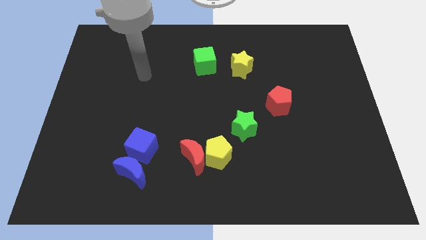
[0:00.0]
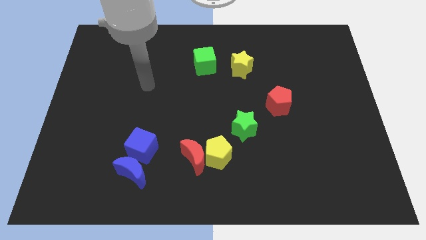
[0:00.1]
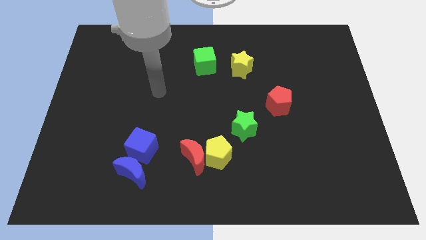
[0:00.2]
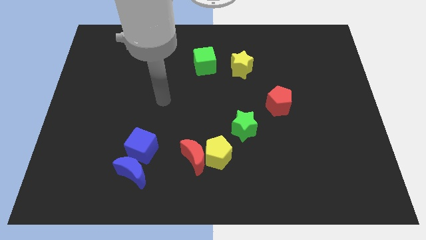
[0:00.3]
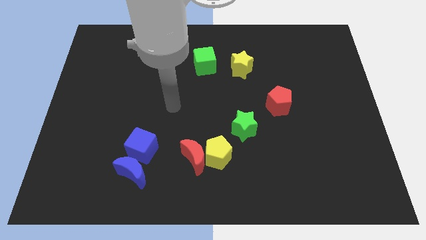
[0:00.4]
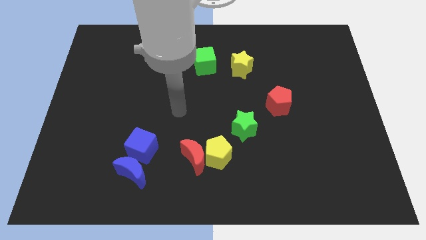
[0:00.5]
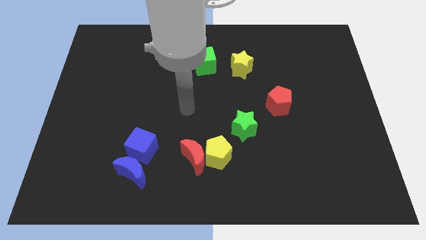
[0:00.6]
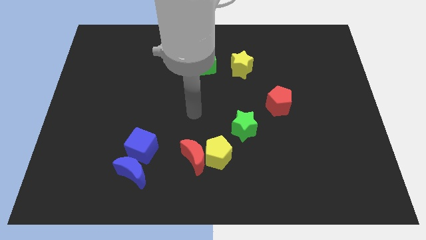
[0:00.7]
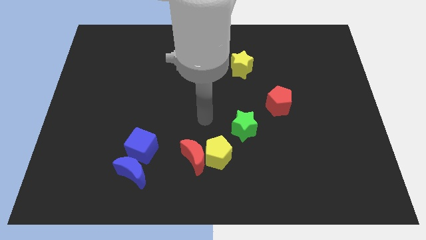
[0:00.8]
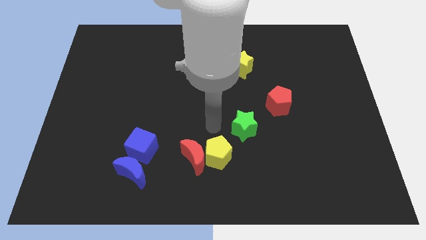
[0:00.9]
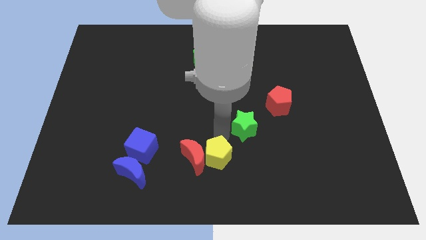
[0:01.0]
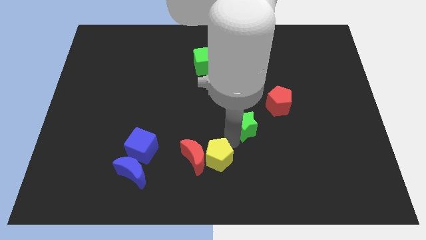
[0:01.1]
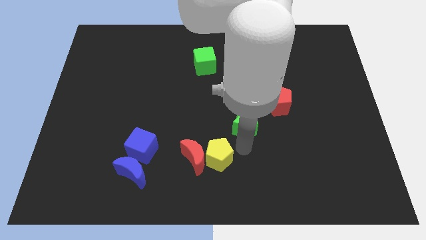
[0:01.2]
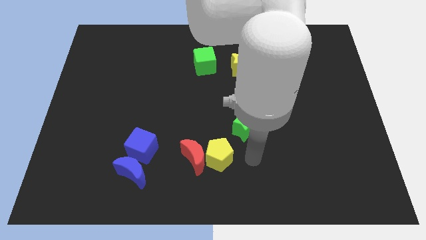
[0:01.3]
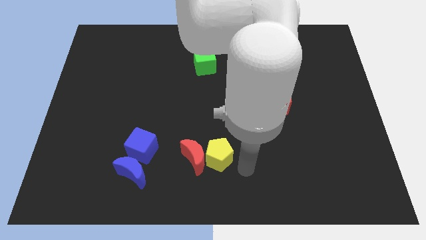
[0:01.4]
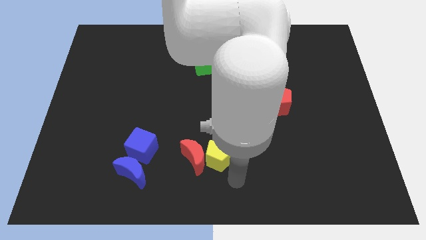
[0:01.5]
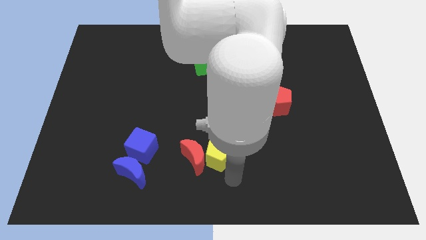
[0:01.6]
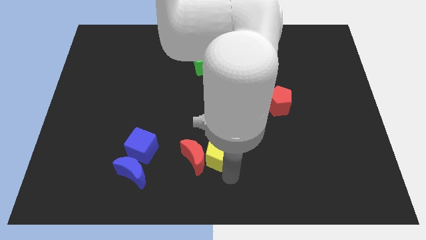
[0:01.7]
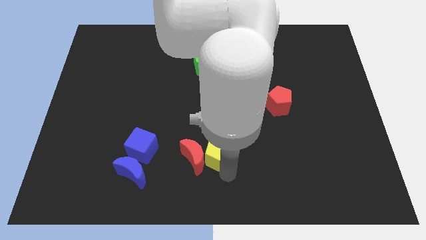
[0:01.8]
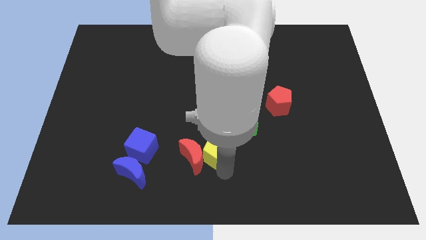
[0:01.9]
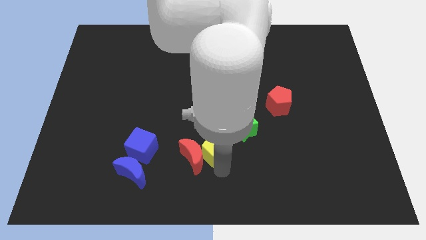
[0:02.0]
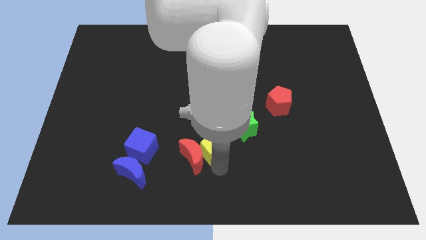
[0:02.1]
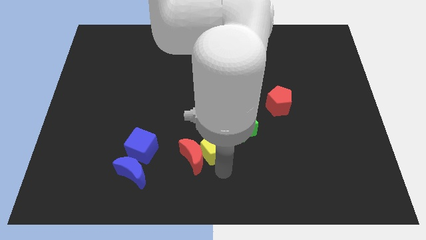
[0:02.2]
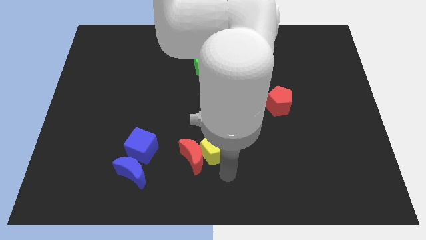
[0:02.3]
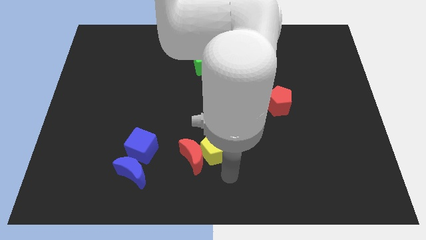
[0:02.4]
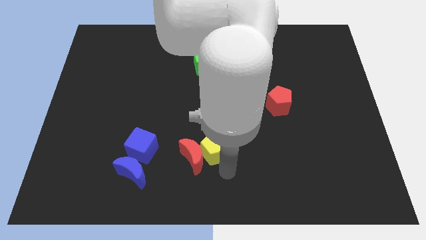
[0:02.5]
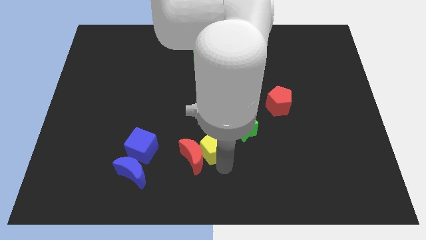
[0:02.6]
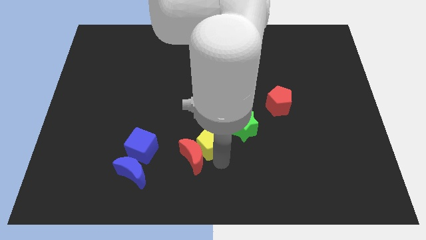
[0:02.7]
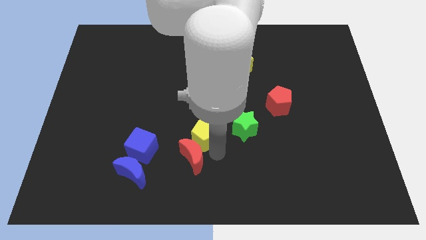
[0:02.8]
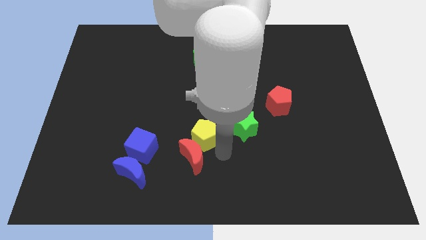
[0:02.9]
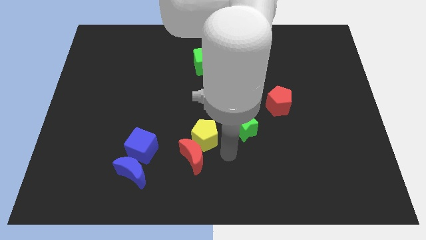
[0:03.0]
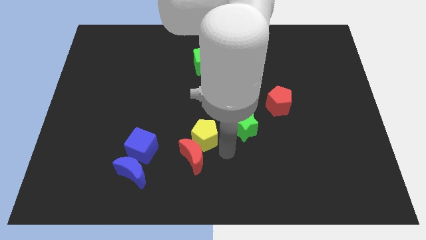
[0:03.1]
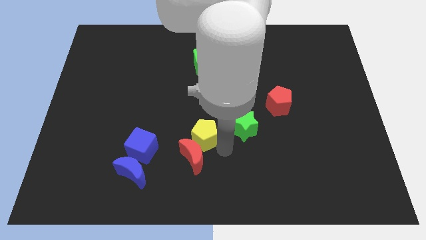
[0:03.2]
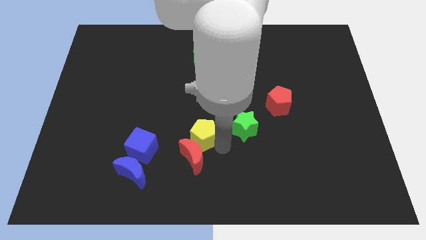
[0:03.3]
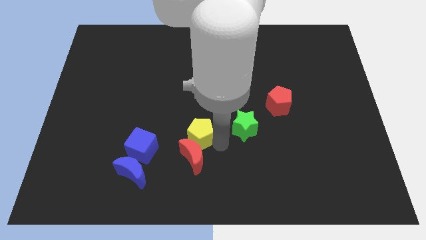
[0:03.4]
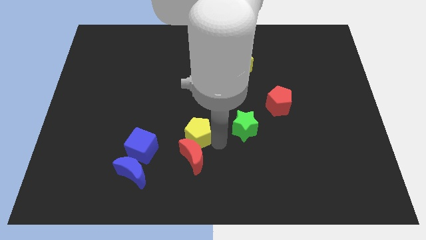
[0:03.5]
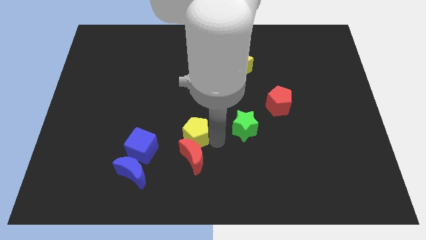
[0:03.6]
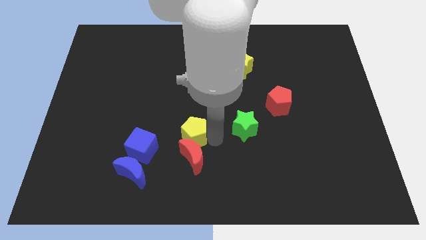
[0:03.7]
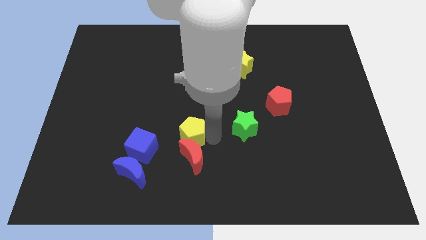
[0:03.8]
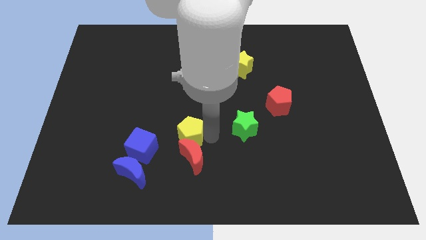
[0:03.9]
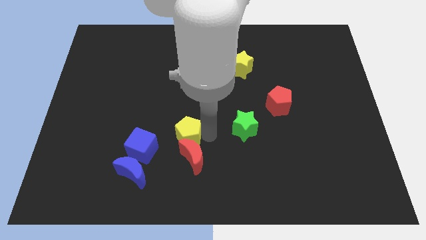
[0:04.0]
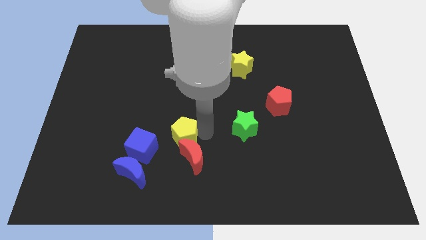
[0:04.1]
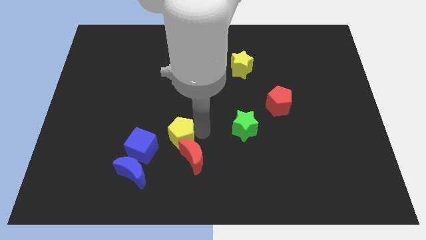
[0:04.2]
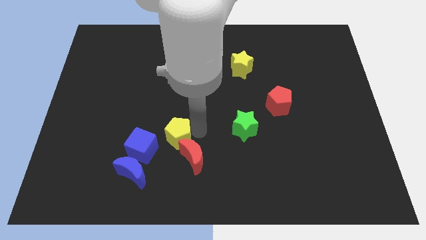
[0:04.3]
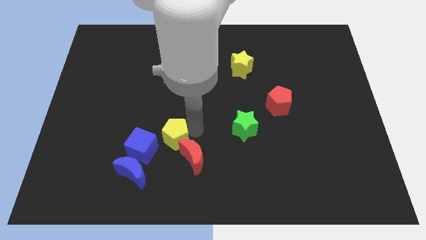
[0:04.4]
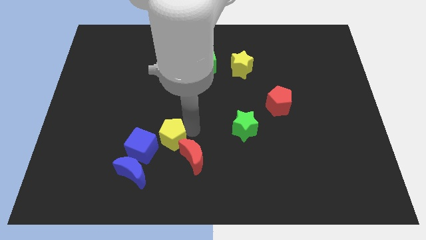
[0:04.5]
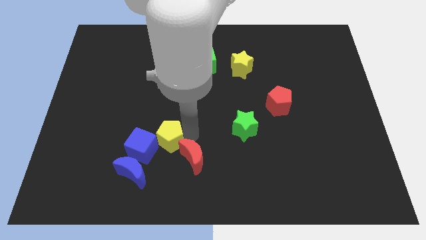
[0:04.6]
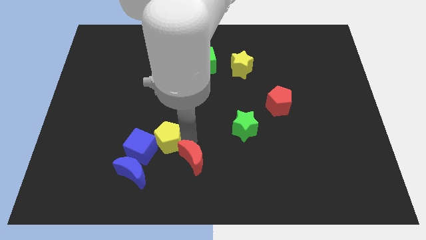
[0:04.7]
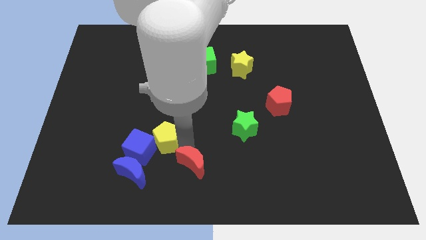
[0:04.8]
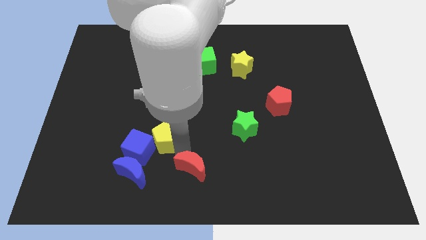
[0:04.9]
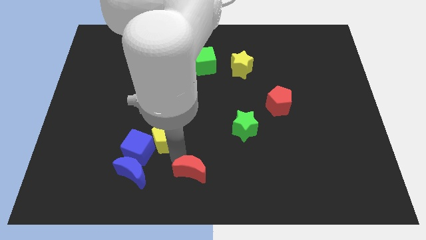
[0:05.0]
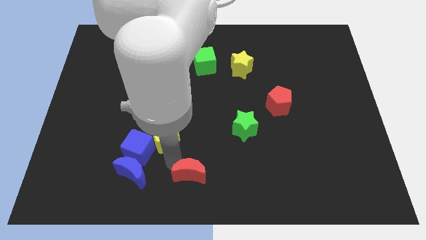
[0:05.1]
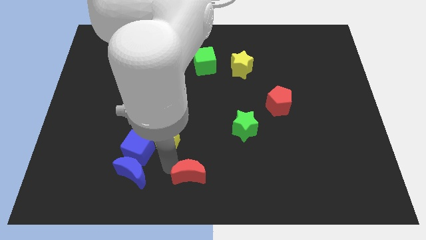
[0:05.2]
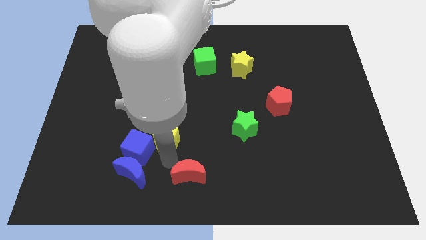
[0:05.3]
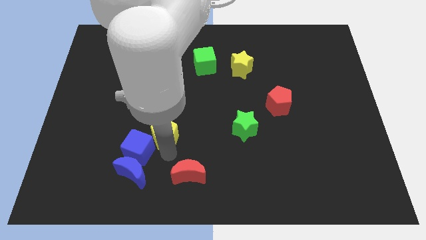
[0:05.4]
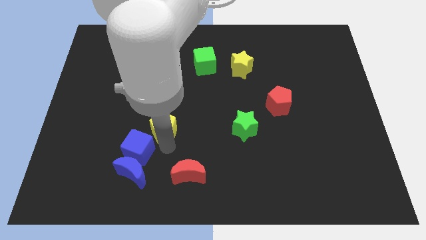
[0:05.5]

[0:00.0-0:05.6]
slide the yellow pentagon to the top side of the blue cube

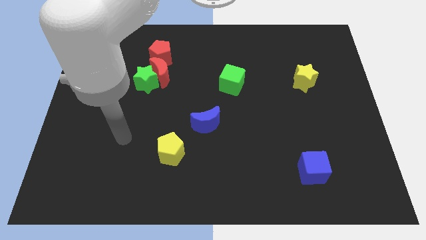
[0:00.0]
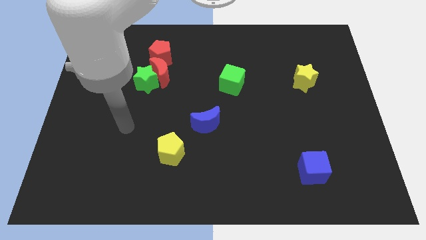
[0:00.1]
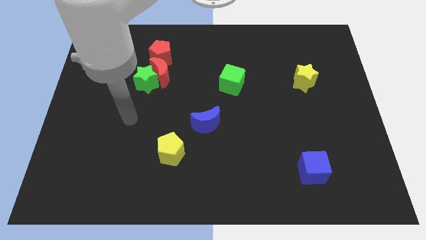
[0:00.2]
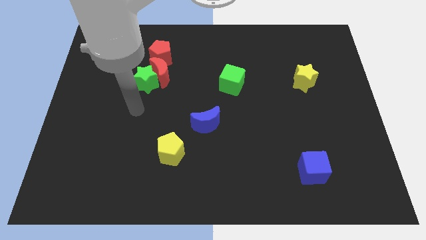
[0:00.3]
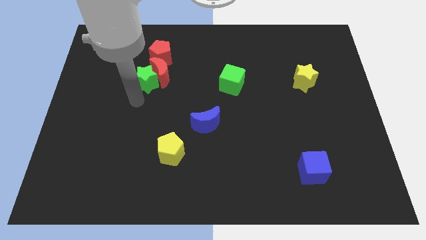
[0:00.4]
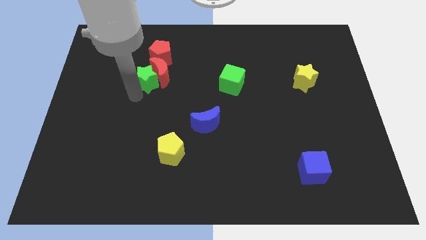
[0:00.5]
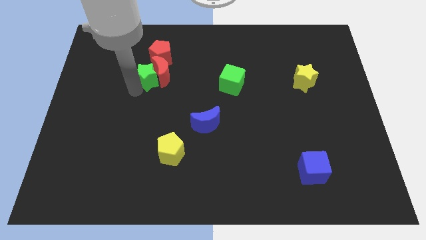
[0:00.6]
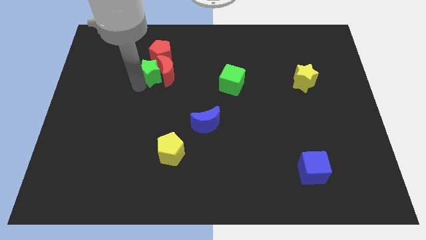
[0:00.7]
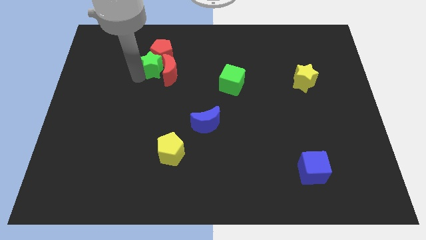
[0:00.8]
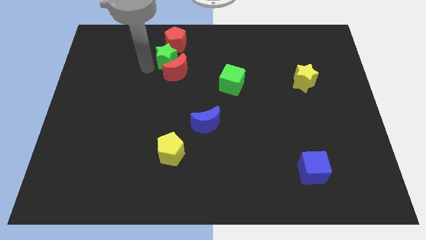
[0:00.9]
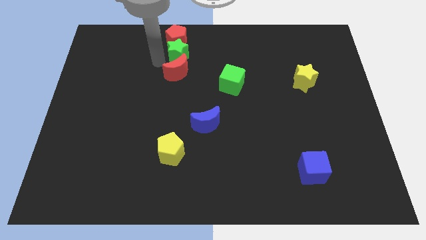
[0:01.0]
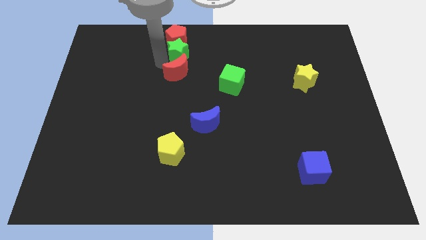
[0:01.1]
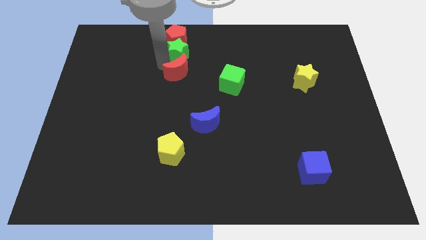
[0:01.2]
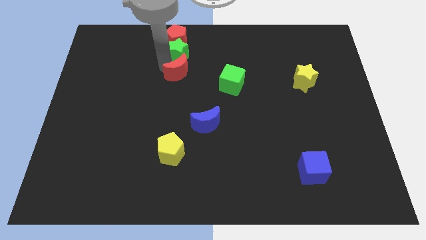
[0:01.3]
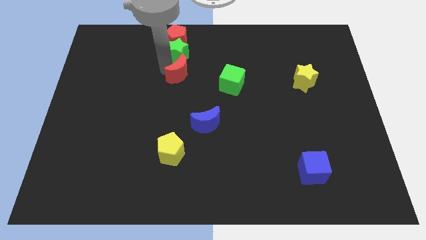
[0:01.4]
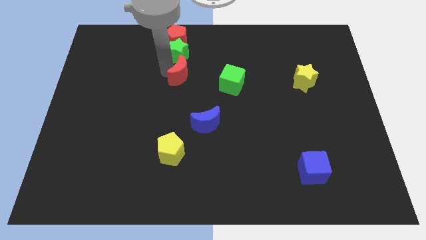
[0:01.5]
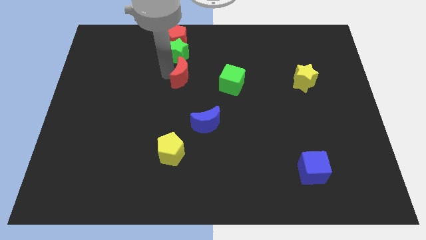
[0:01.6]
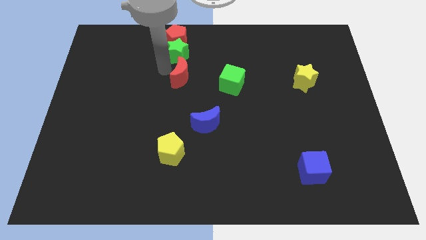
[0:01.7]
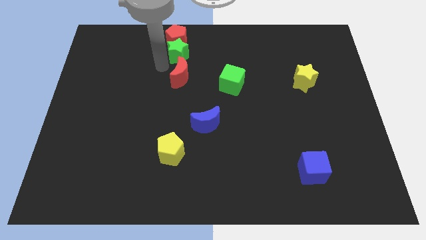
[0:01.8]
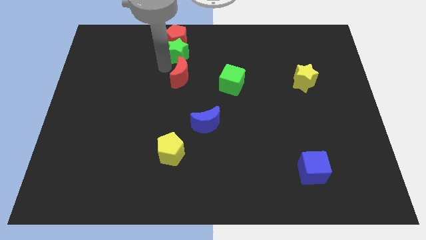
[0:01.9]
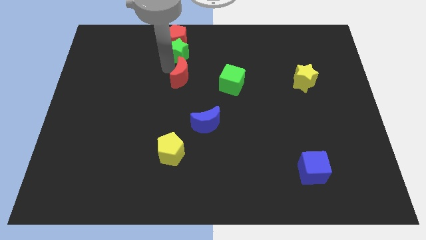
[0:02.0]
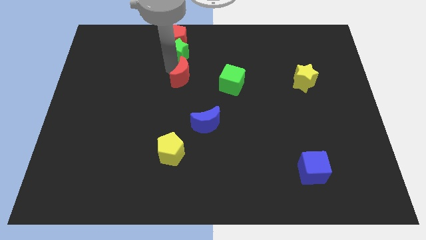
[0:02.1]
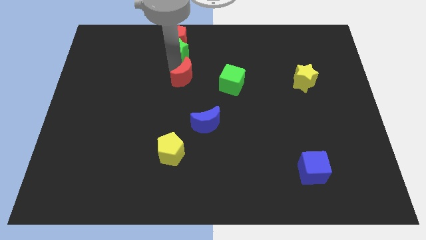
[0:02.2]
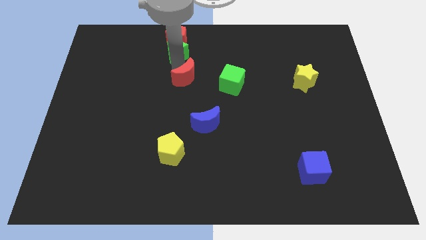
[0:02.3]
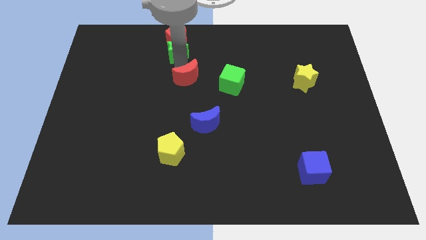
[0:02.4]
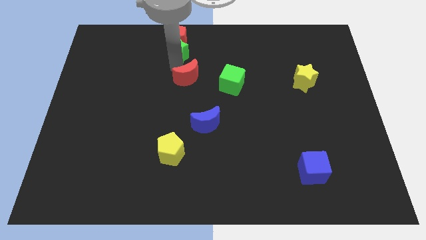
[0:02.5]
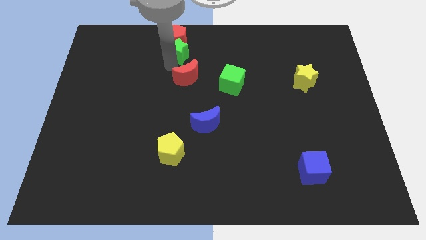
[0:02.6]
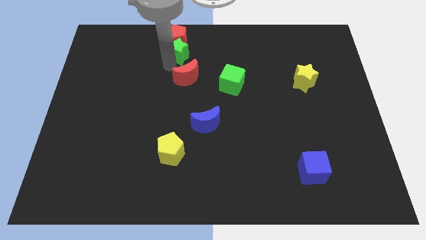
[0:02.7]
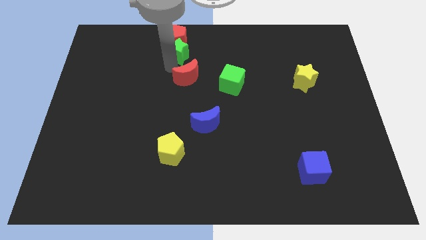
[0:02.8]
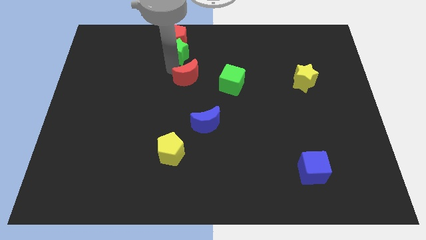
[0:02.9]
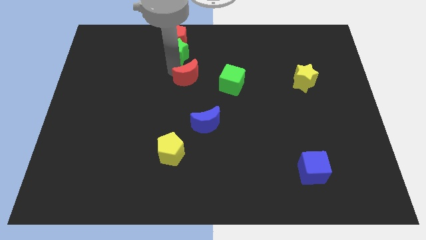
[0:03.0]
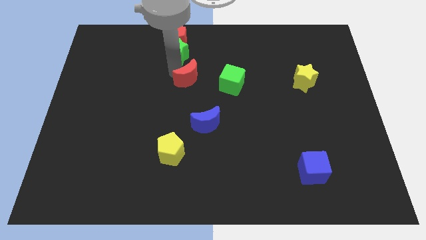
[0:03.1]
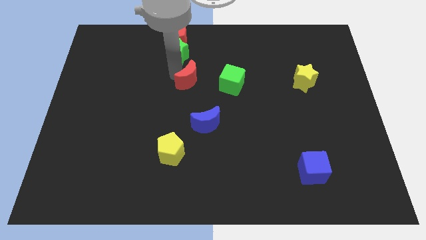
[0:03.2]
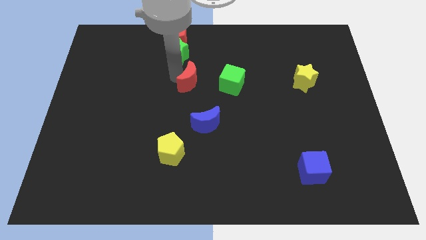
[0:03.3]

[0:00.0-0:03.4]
slide the red moon to the top side of the blue moon
